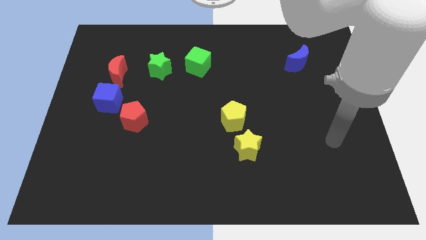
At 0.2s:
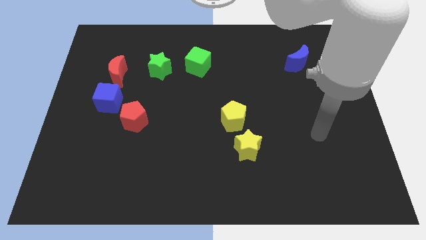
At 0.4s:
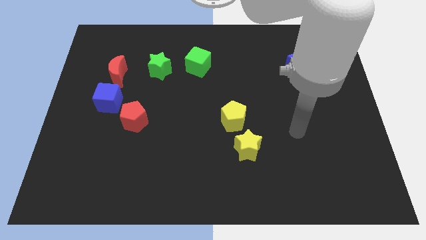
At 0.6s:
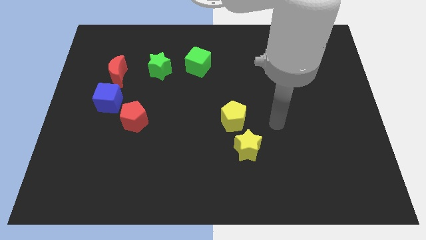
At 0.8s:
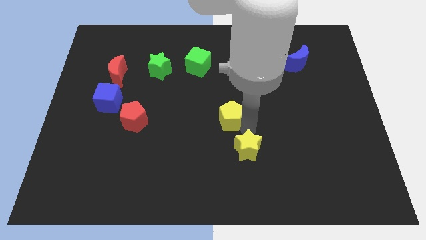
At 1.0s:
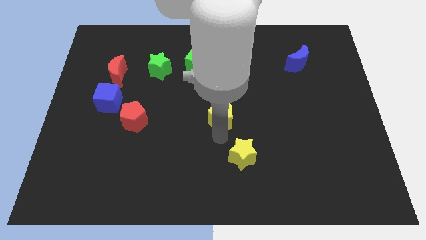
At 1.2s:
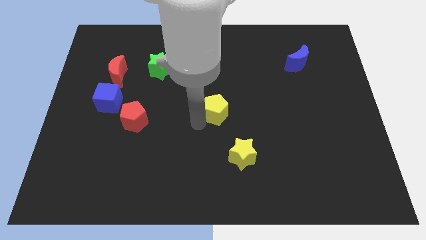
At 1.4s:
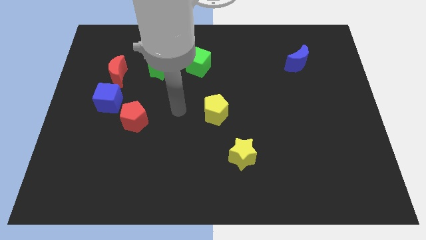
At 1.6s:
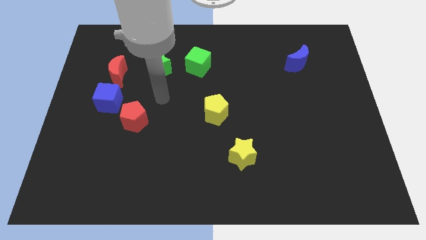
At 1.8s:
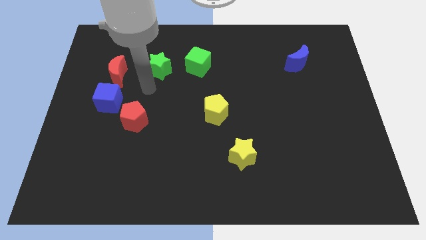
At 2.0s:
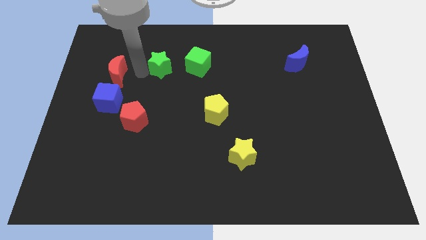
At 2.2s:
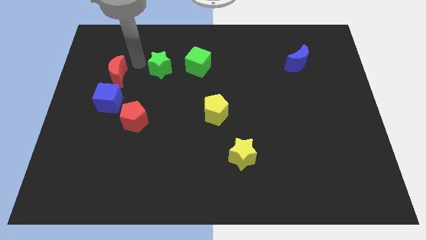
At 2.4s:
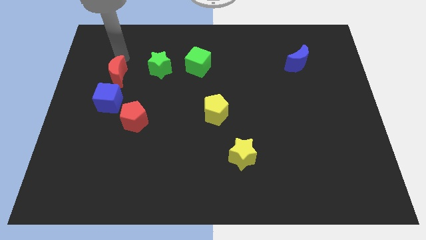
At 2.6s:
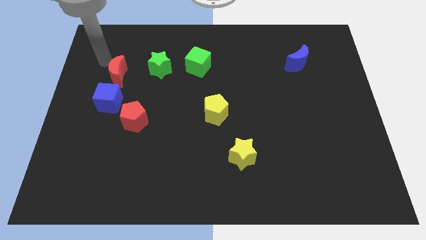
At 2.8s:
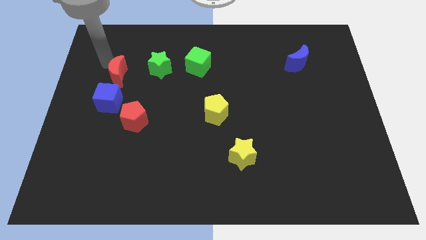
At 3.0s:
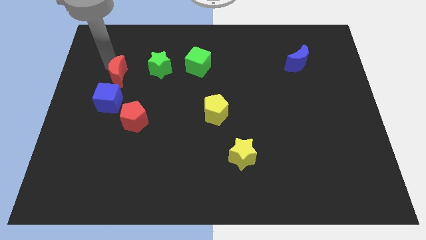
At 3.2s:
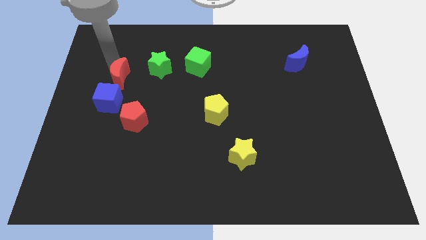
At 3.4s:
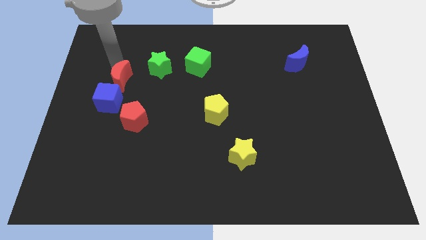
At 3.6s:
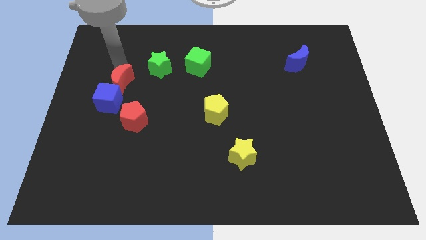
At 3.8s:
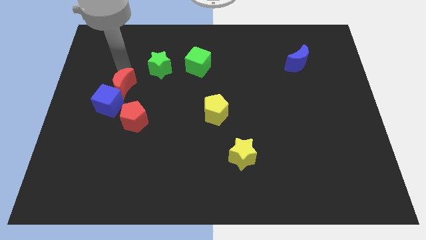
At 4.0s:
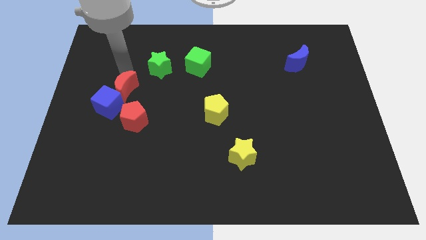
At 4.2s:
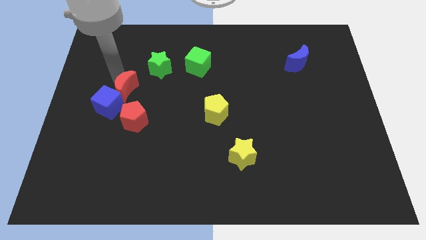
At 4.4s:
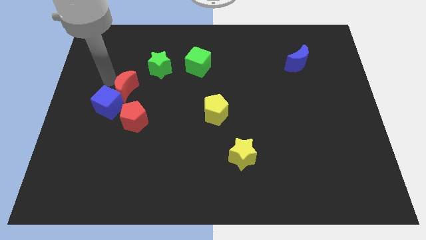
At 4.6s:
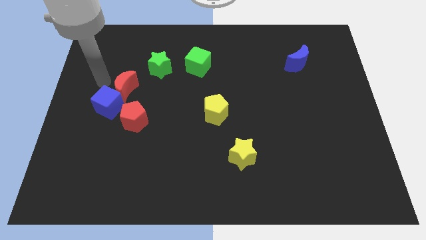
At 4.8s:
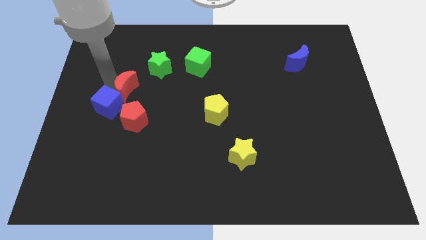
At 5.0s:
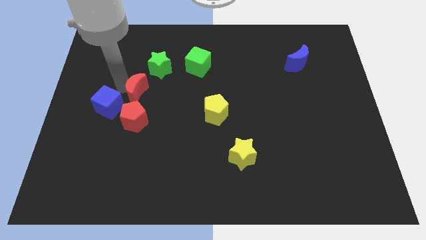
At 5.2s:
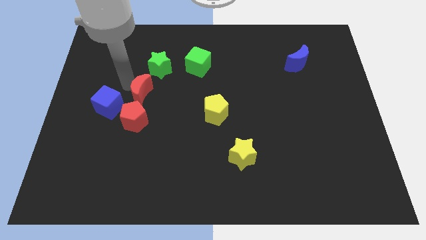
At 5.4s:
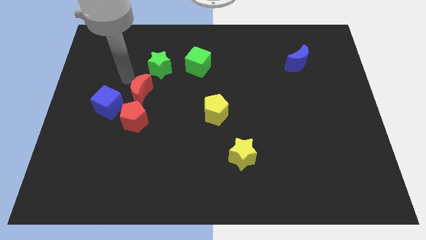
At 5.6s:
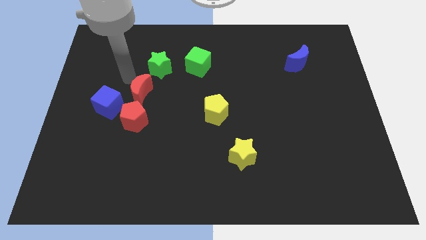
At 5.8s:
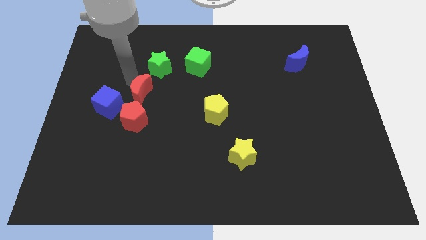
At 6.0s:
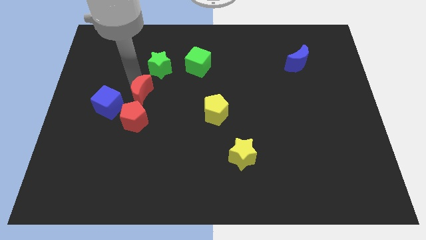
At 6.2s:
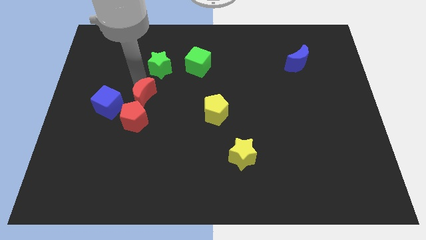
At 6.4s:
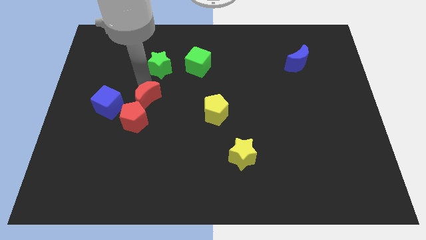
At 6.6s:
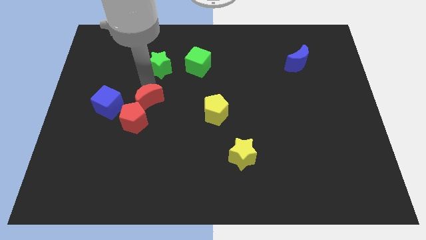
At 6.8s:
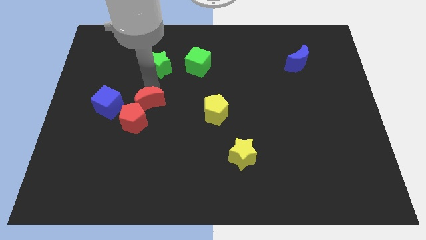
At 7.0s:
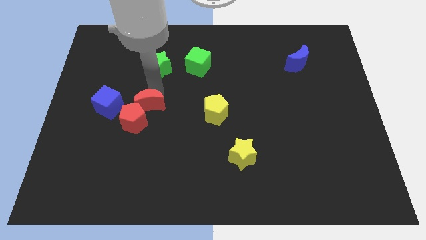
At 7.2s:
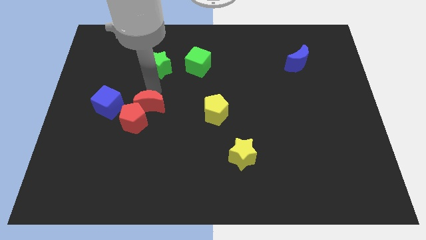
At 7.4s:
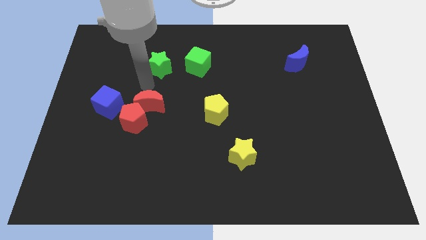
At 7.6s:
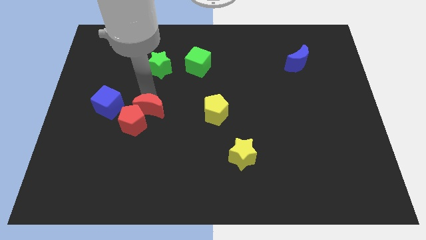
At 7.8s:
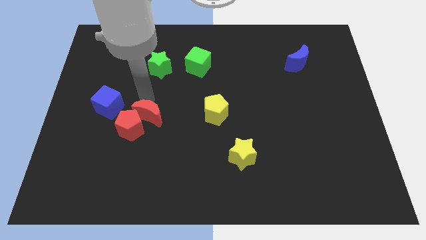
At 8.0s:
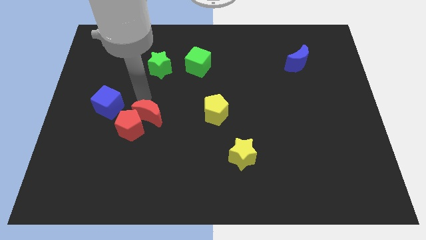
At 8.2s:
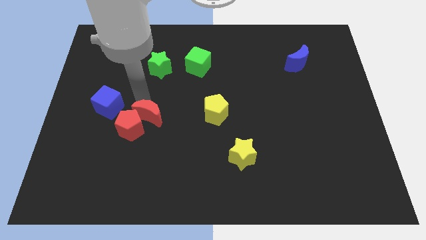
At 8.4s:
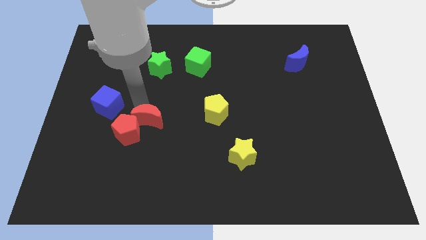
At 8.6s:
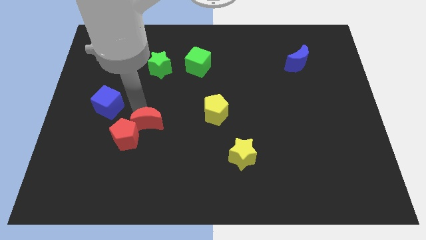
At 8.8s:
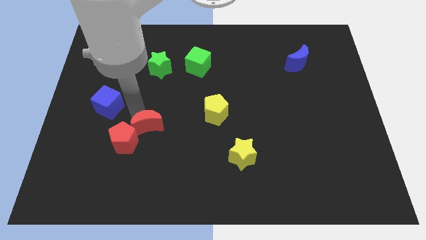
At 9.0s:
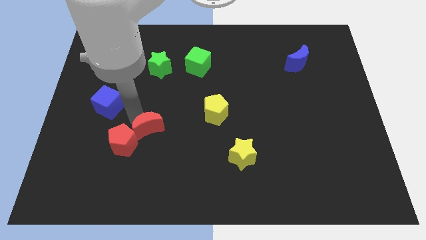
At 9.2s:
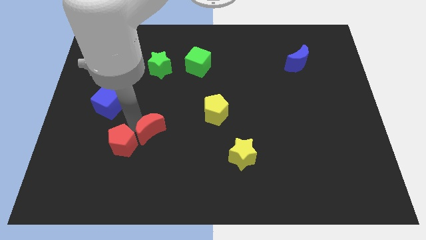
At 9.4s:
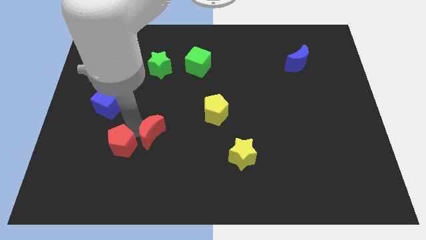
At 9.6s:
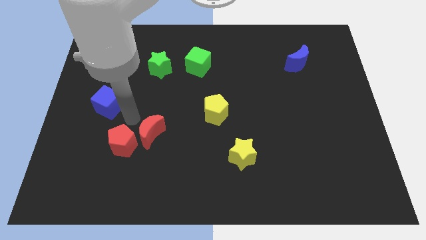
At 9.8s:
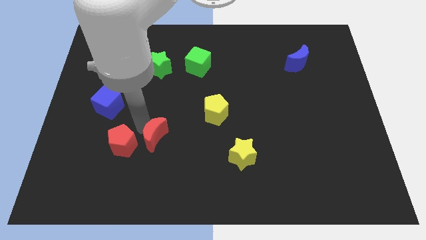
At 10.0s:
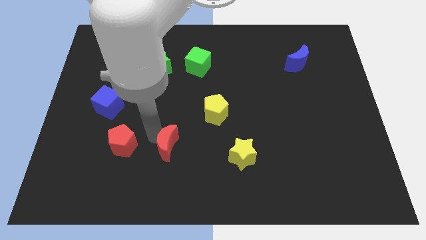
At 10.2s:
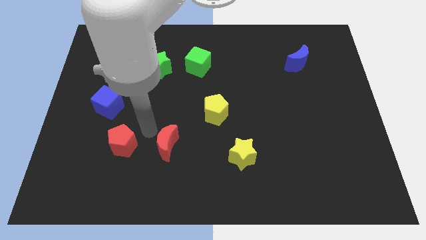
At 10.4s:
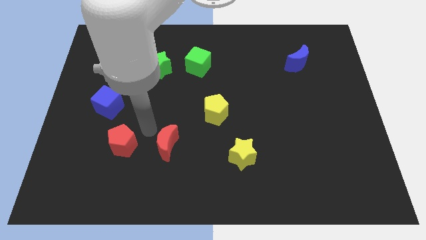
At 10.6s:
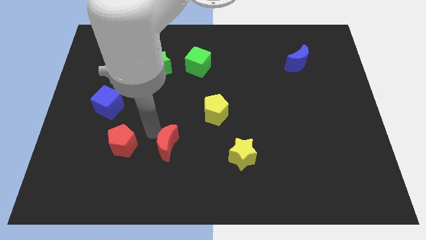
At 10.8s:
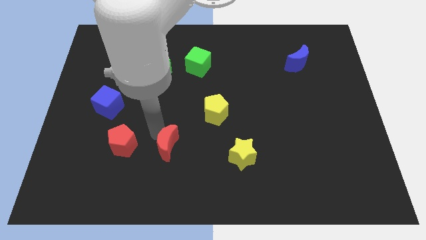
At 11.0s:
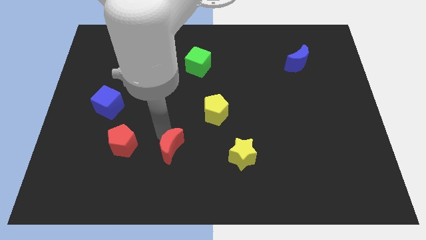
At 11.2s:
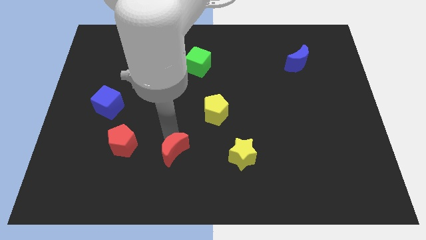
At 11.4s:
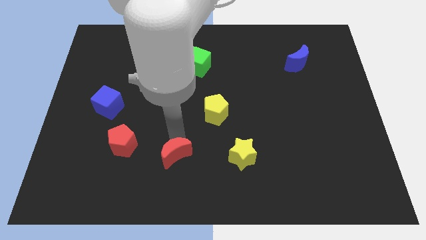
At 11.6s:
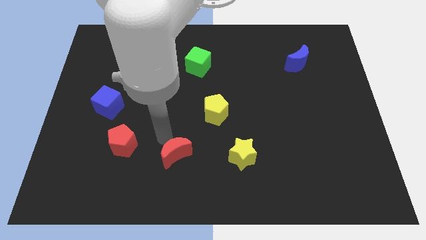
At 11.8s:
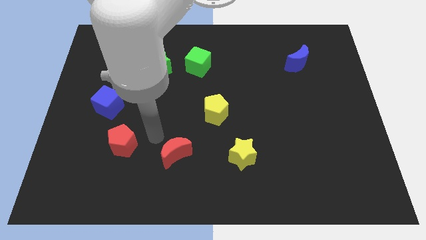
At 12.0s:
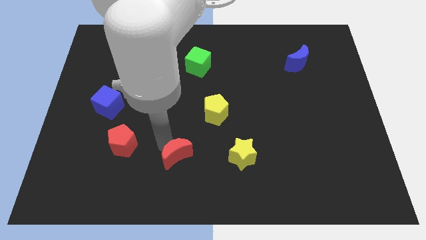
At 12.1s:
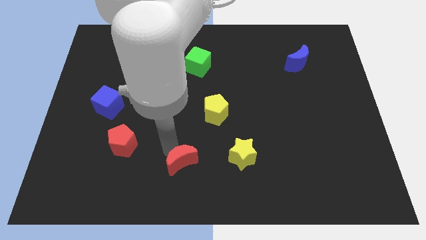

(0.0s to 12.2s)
slide the red moon to the bottom side
